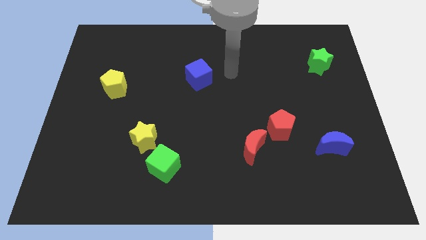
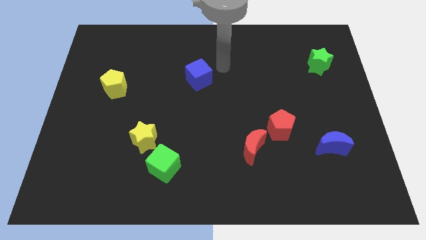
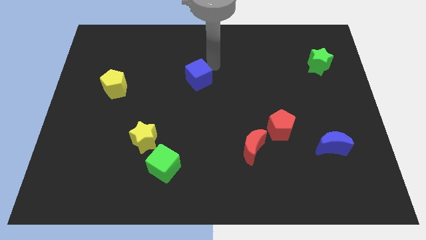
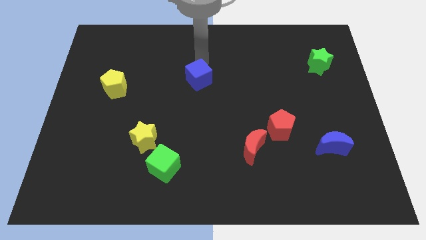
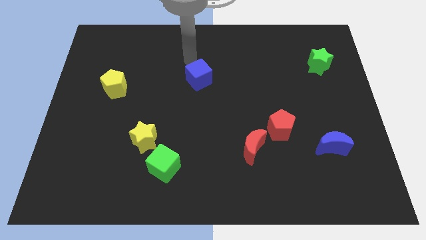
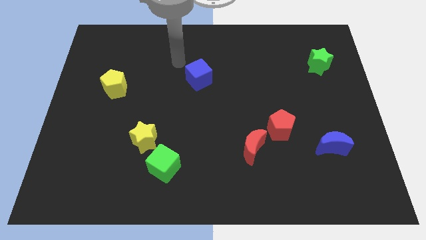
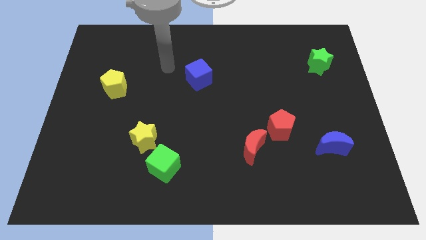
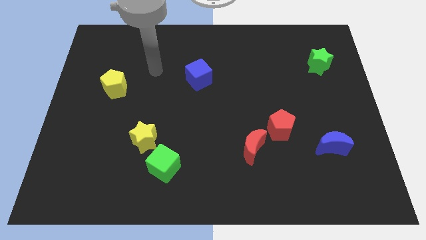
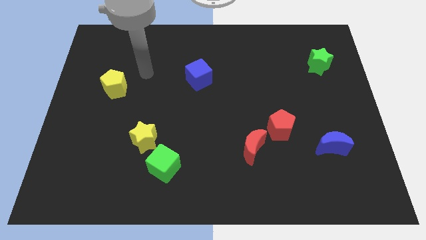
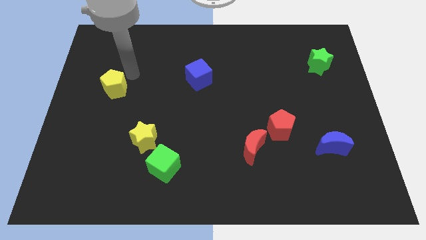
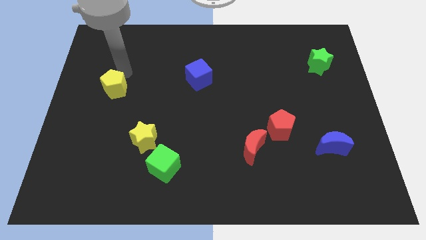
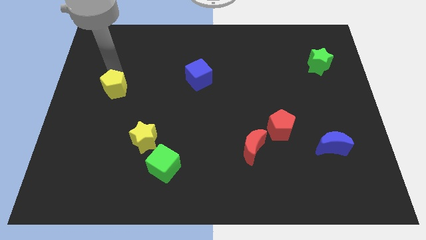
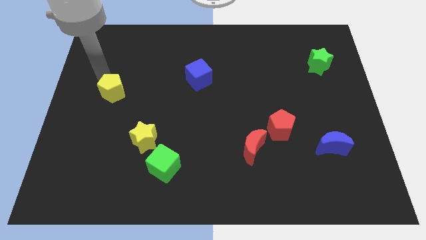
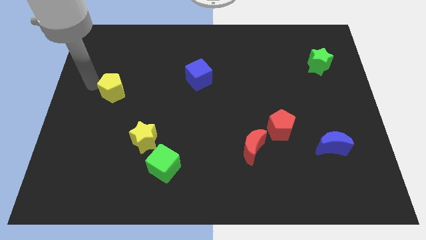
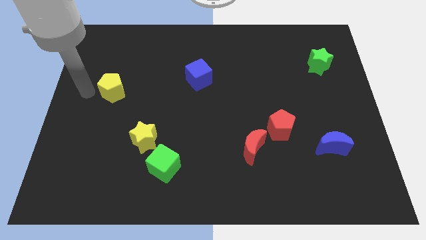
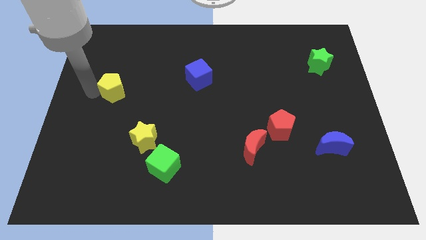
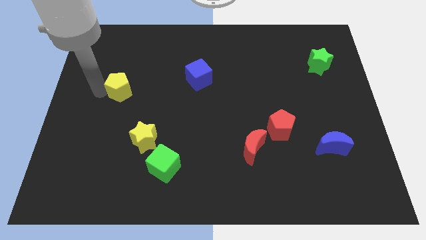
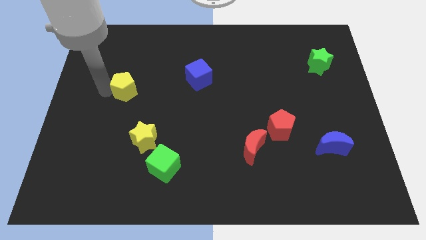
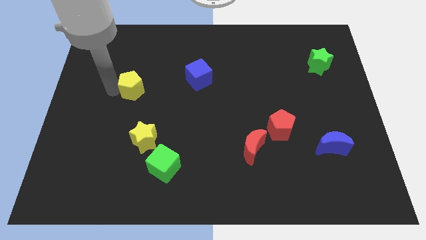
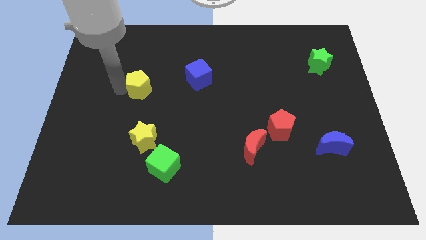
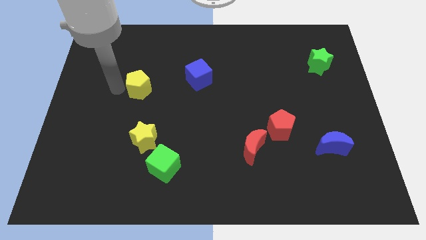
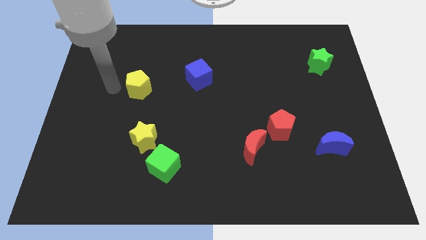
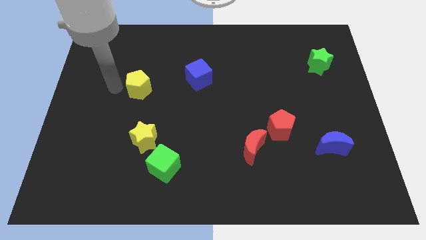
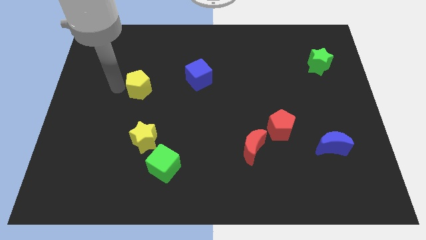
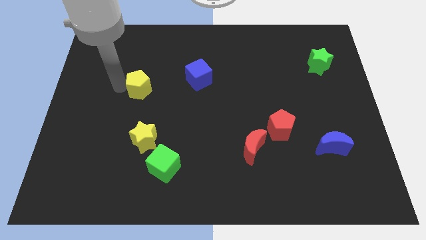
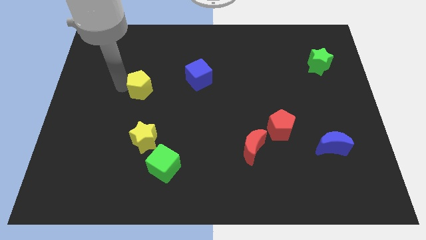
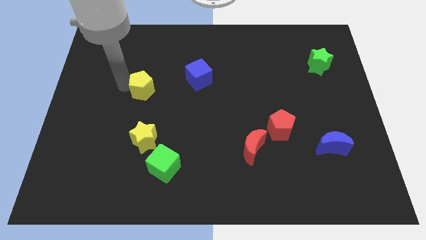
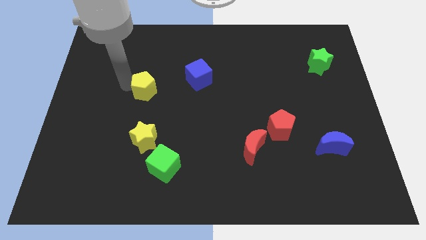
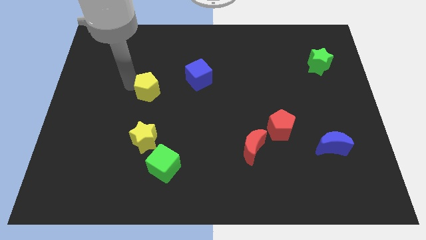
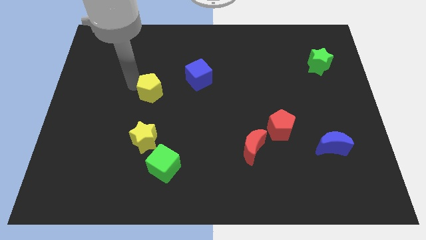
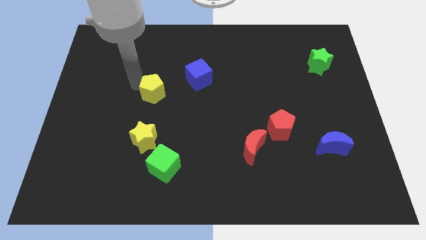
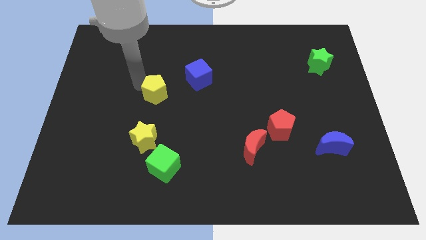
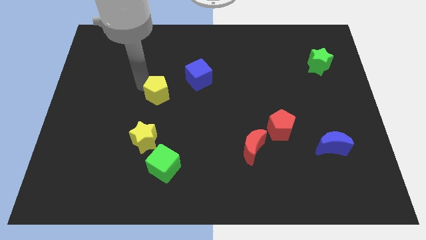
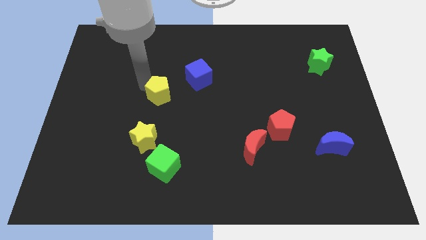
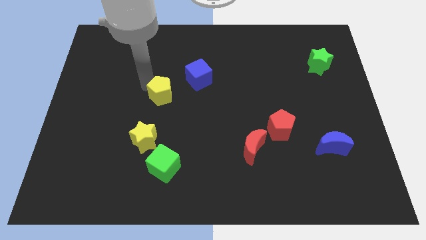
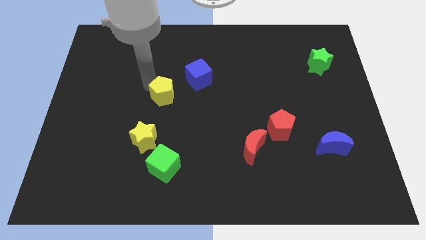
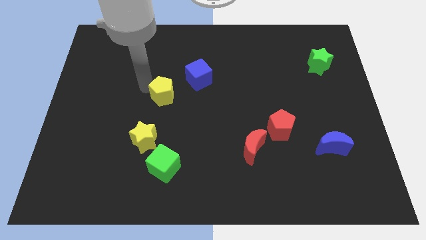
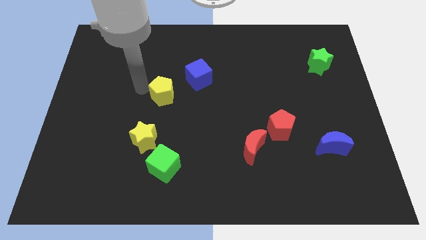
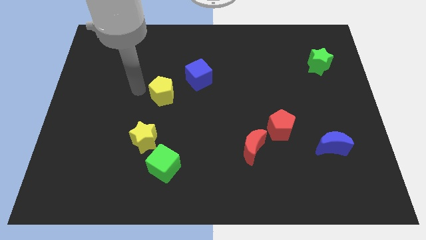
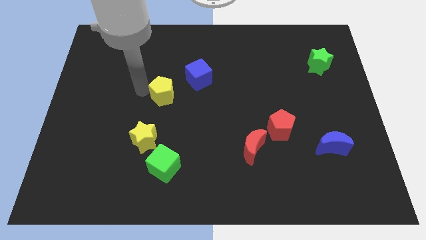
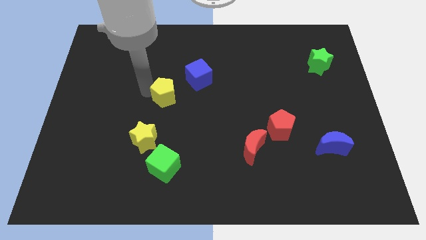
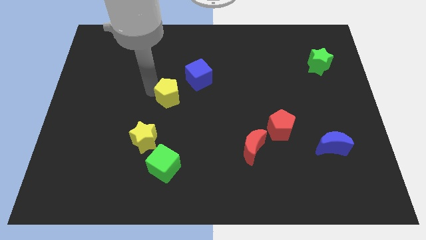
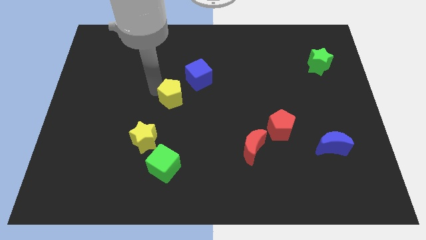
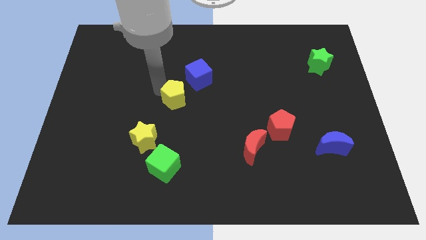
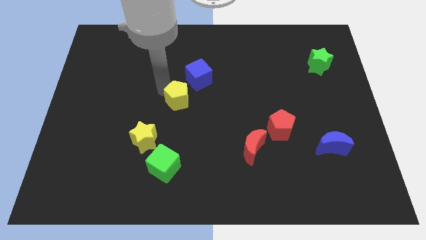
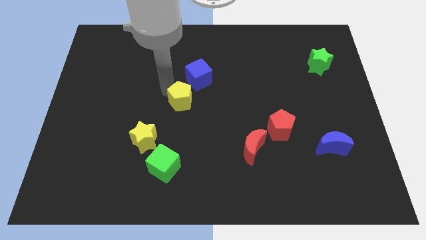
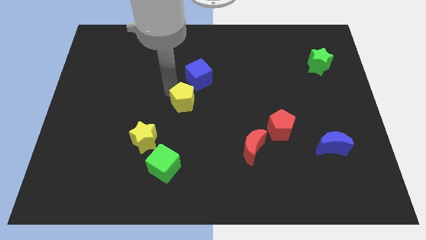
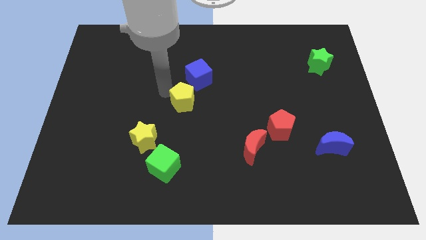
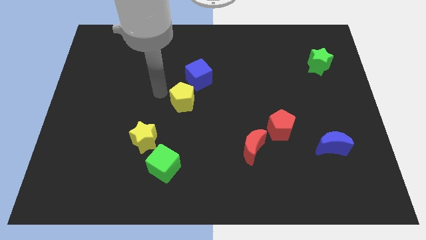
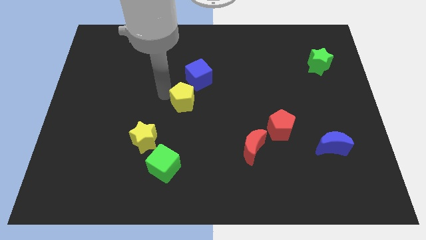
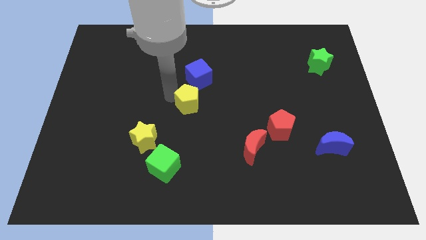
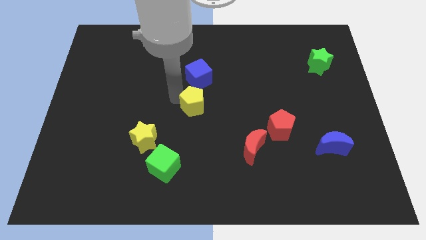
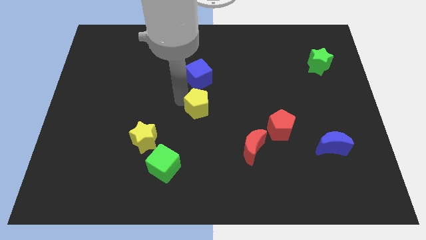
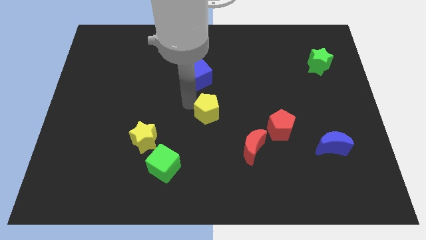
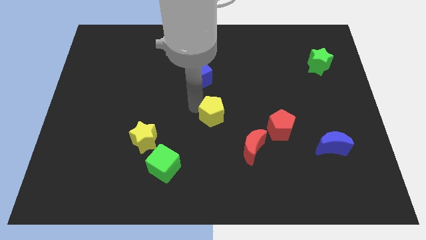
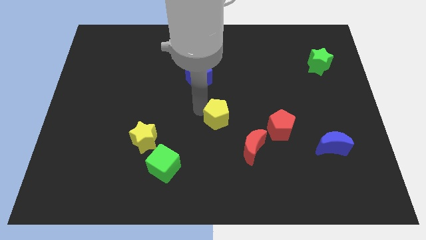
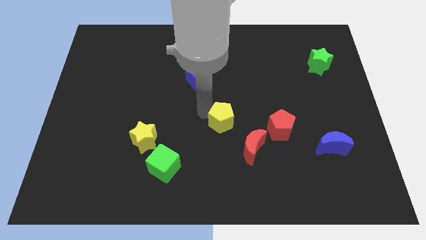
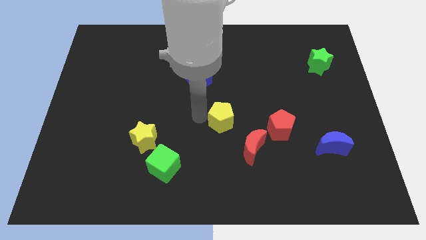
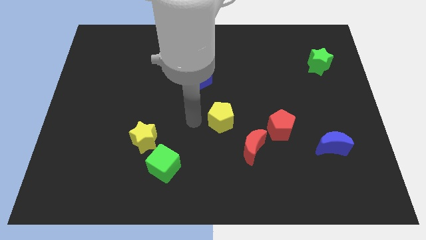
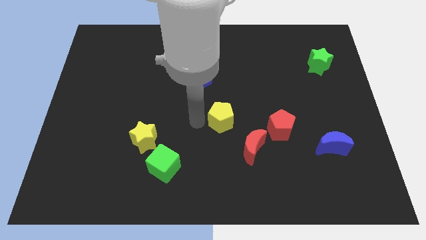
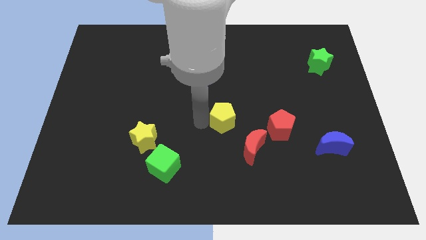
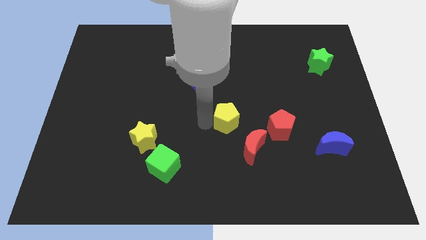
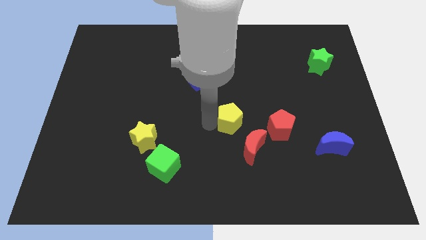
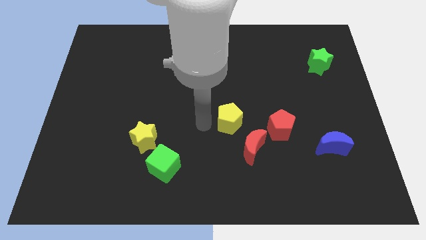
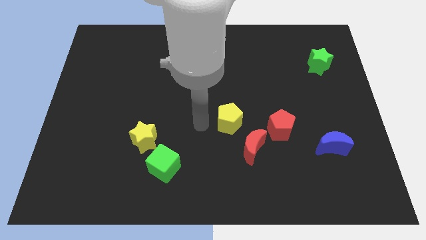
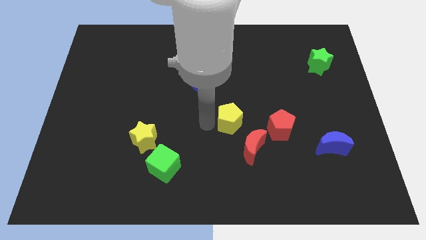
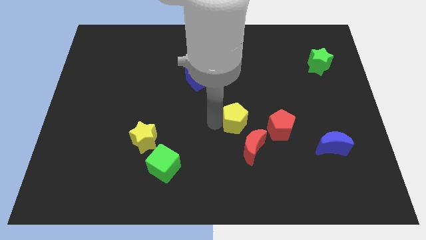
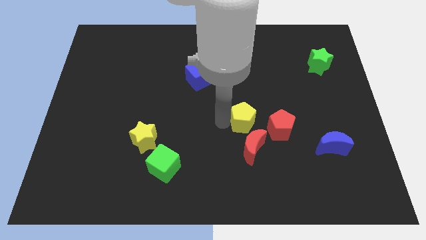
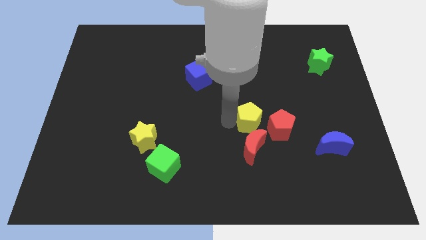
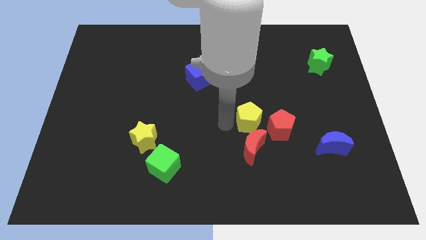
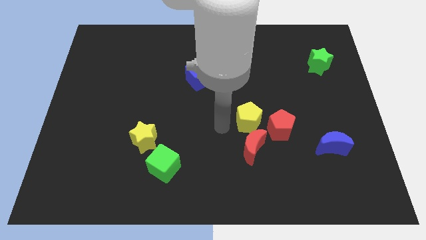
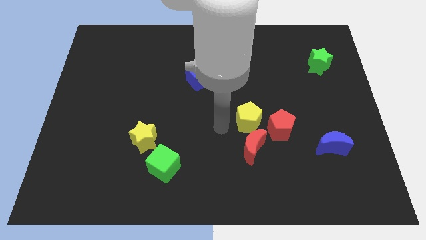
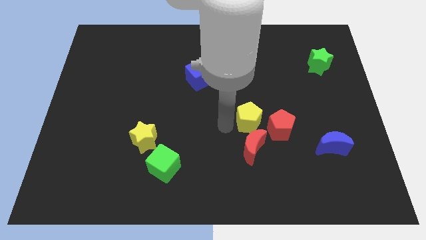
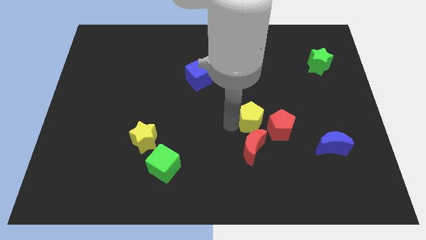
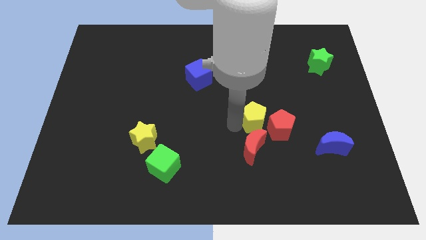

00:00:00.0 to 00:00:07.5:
push the yellow pentagon close to the red pentagon
